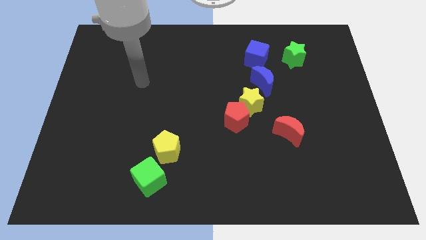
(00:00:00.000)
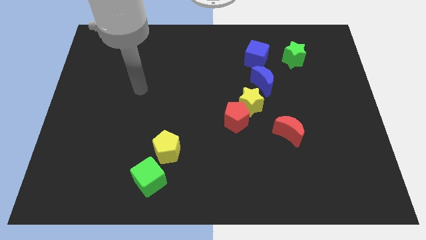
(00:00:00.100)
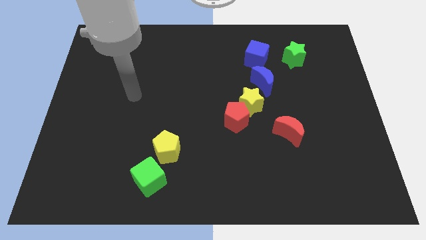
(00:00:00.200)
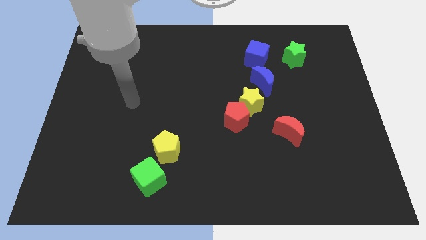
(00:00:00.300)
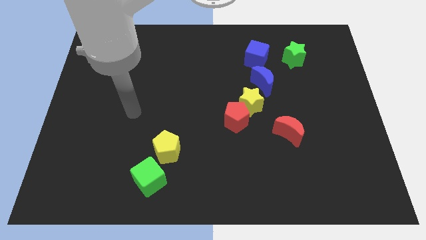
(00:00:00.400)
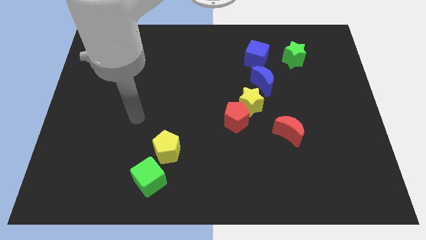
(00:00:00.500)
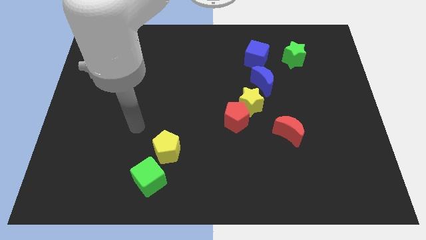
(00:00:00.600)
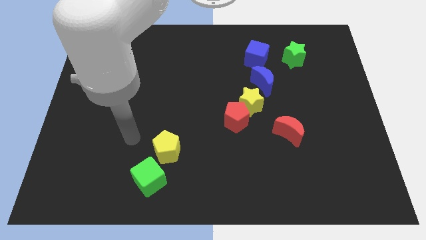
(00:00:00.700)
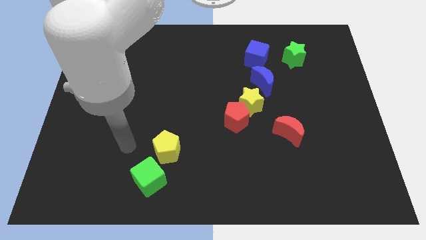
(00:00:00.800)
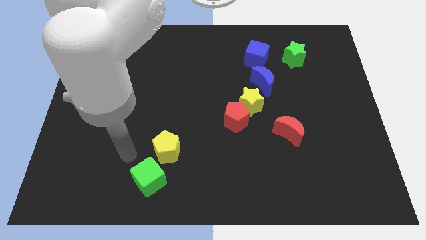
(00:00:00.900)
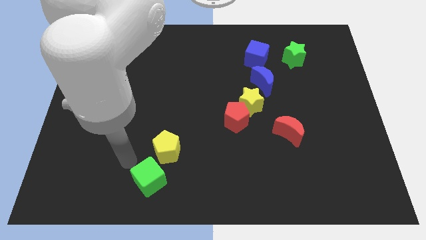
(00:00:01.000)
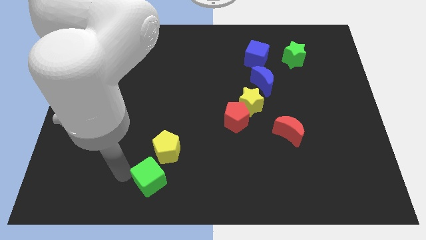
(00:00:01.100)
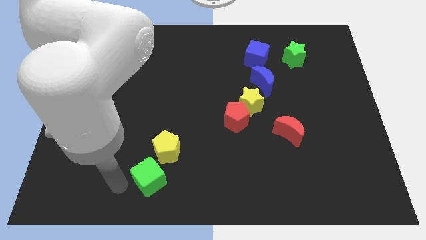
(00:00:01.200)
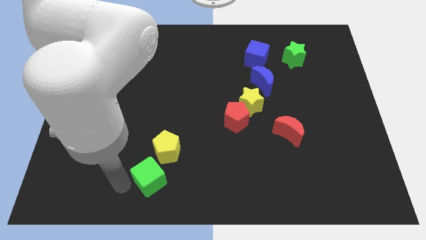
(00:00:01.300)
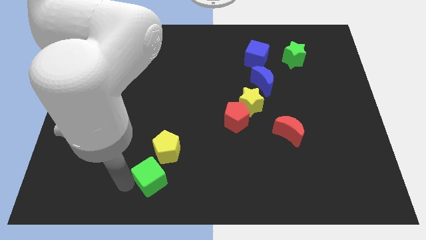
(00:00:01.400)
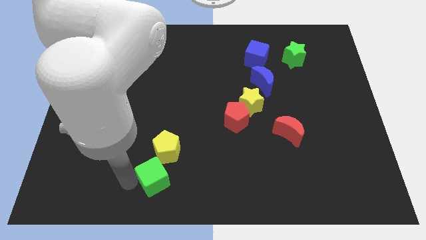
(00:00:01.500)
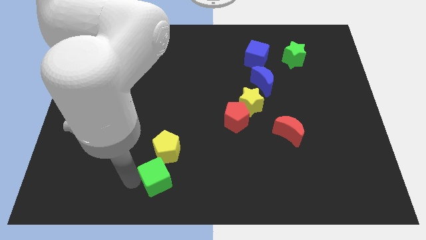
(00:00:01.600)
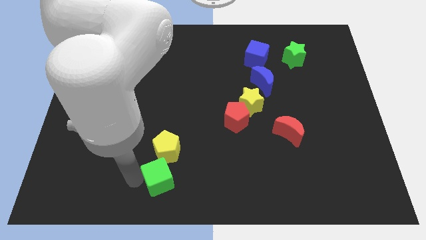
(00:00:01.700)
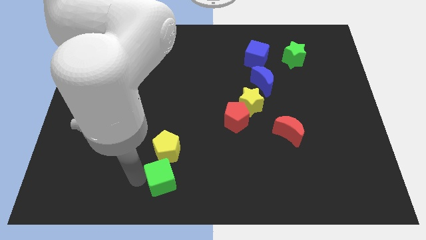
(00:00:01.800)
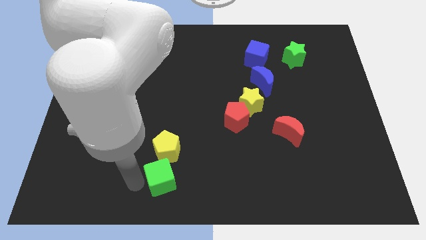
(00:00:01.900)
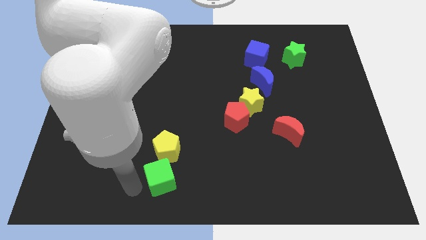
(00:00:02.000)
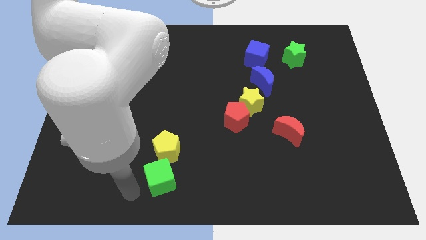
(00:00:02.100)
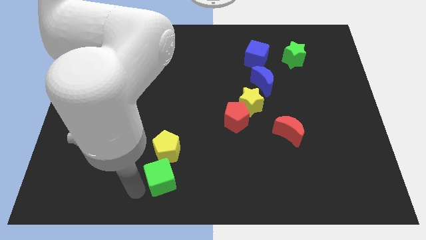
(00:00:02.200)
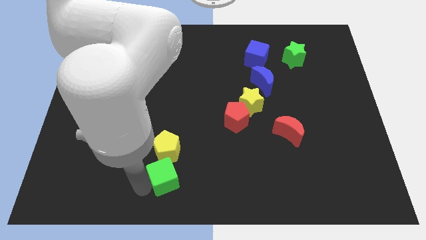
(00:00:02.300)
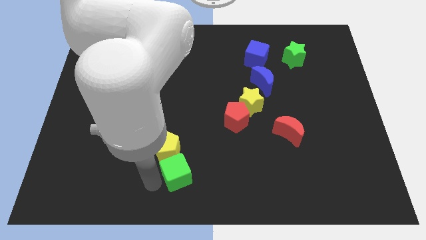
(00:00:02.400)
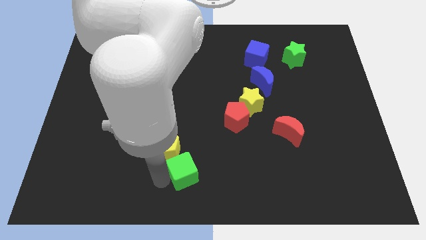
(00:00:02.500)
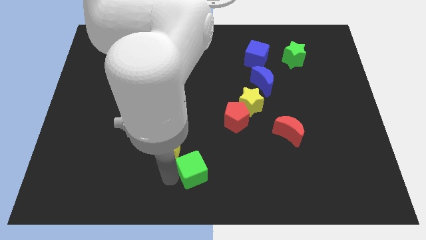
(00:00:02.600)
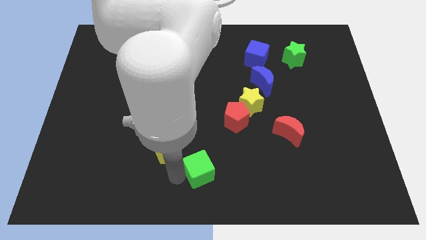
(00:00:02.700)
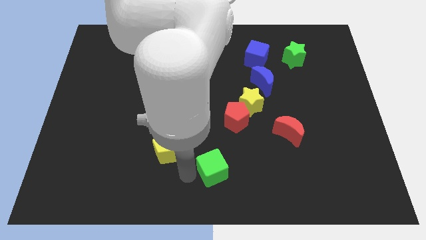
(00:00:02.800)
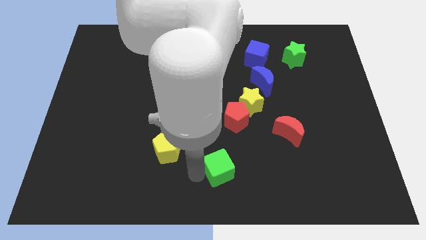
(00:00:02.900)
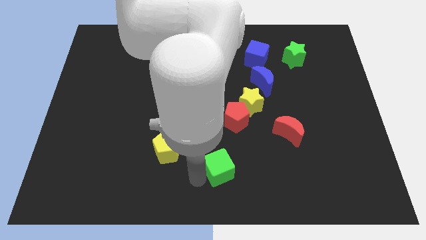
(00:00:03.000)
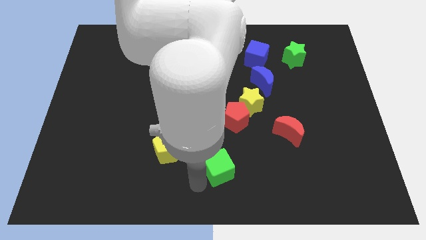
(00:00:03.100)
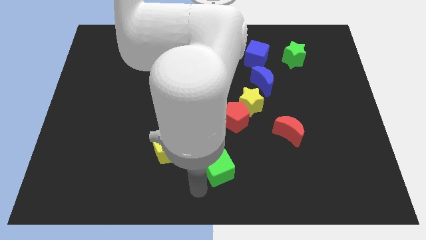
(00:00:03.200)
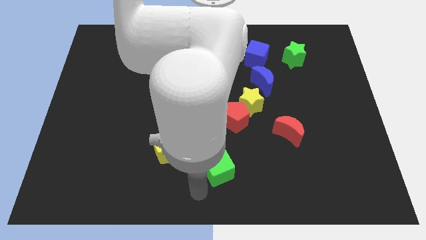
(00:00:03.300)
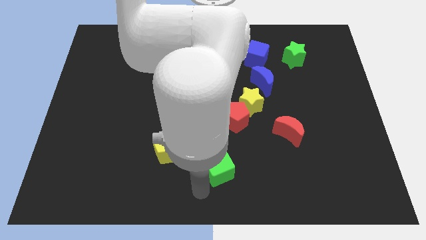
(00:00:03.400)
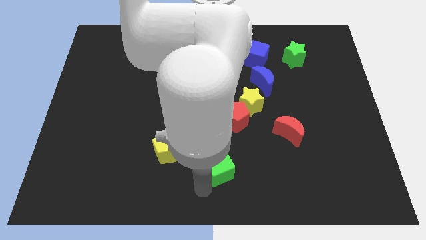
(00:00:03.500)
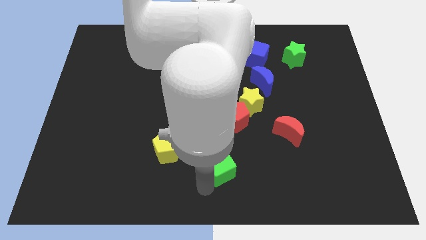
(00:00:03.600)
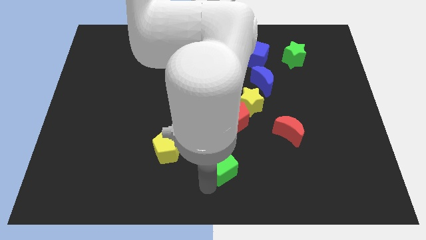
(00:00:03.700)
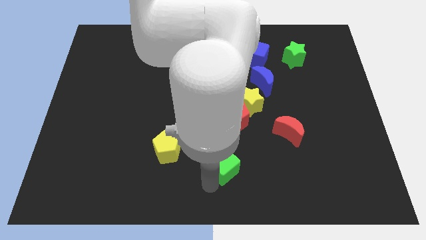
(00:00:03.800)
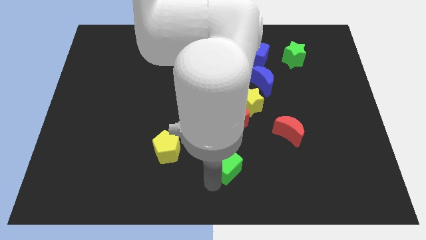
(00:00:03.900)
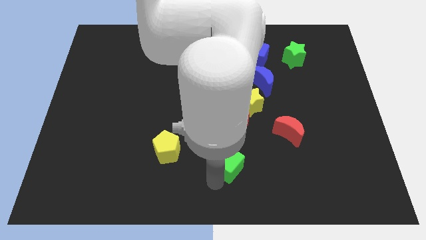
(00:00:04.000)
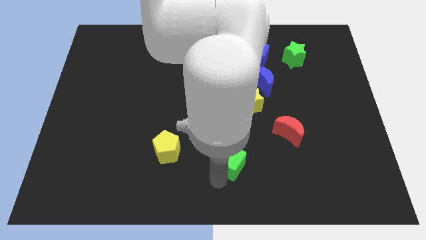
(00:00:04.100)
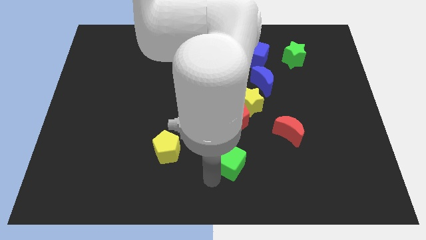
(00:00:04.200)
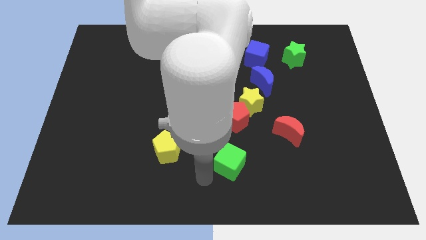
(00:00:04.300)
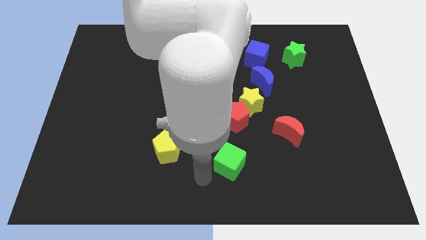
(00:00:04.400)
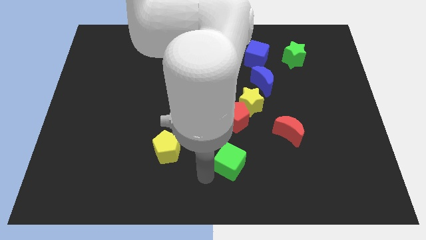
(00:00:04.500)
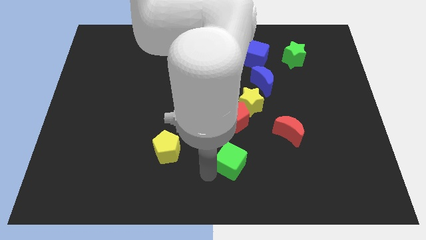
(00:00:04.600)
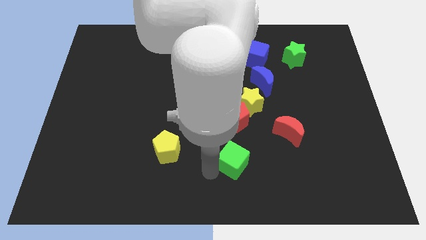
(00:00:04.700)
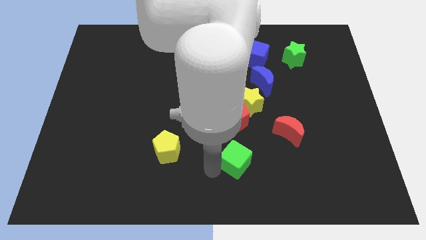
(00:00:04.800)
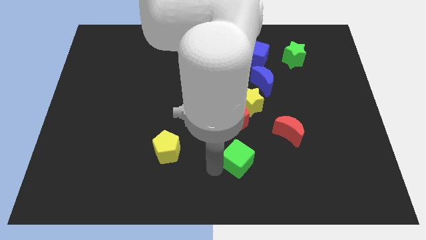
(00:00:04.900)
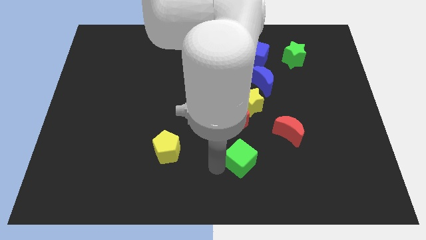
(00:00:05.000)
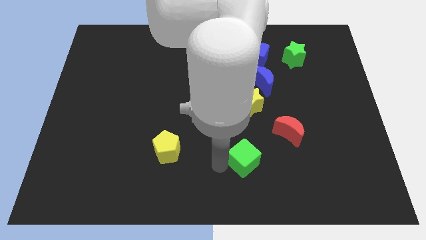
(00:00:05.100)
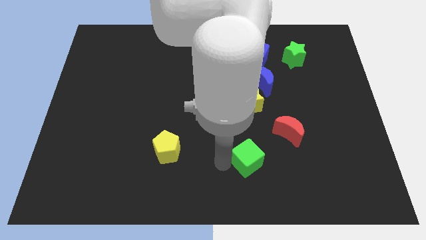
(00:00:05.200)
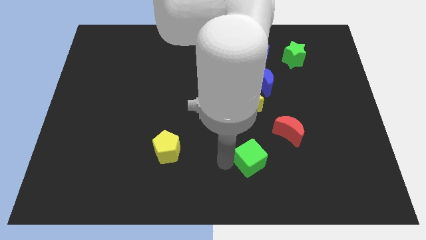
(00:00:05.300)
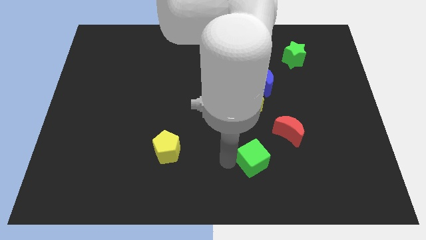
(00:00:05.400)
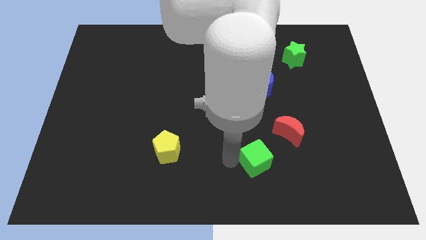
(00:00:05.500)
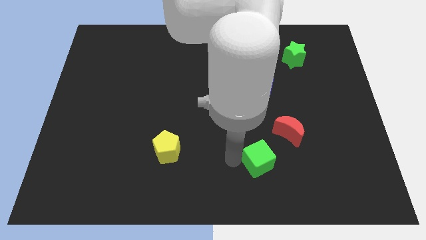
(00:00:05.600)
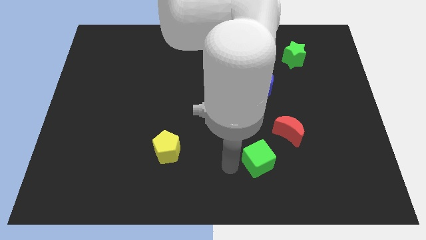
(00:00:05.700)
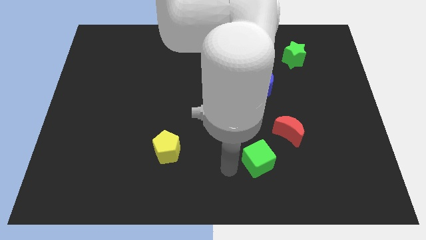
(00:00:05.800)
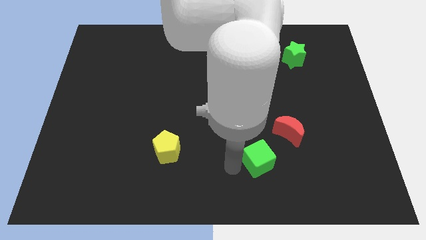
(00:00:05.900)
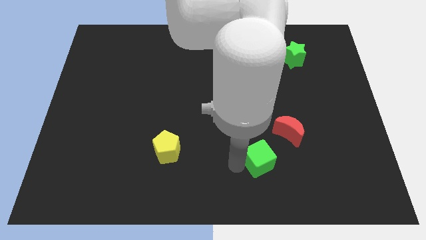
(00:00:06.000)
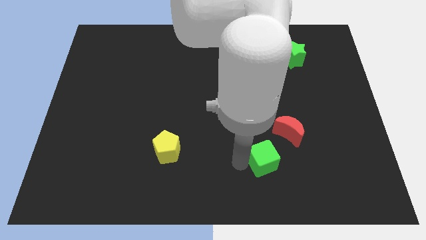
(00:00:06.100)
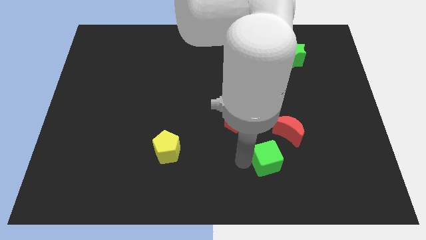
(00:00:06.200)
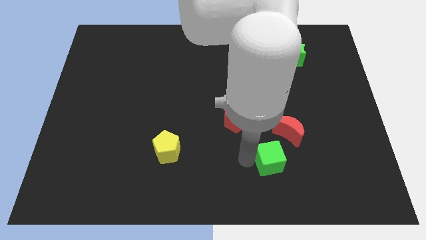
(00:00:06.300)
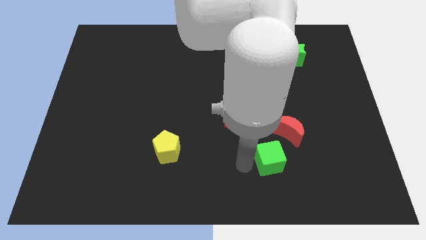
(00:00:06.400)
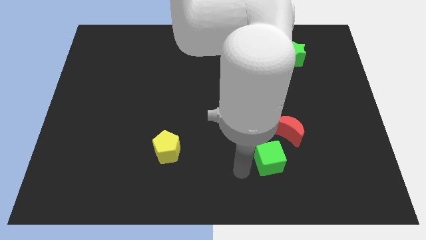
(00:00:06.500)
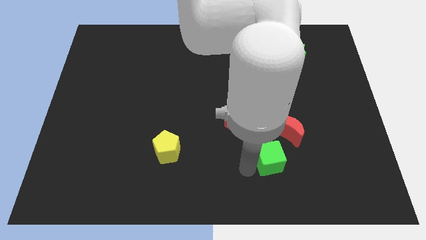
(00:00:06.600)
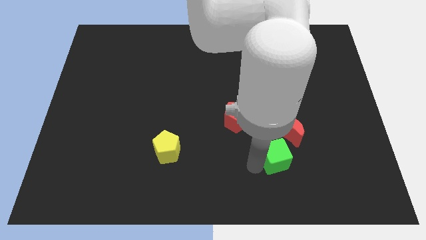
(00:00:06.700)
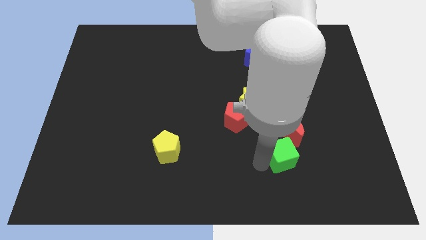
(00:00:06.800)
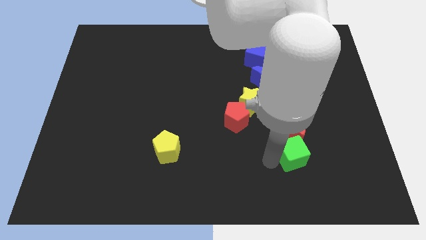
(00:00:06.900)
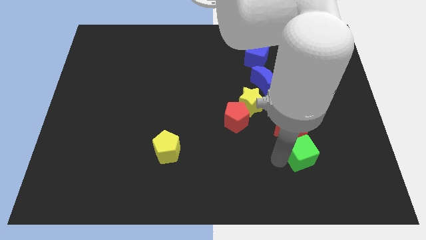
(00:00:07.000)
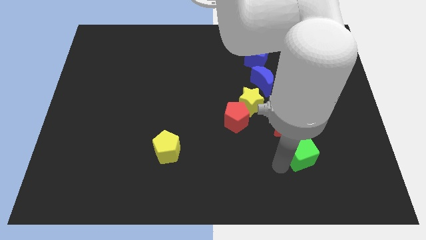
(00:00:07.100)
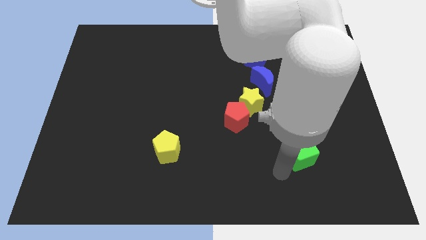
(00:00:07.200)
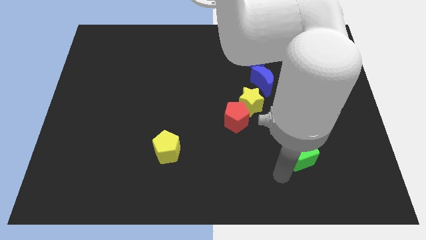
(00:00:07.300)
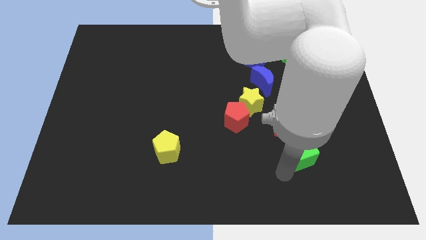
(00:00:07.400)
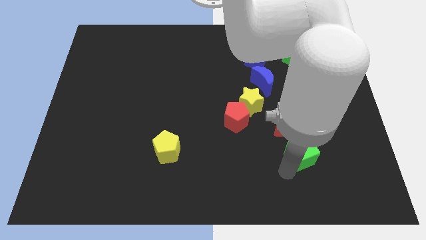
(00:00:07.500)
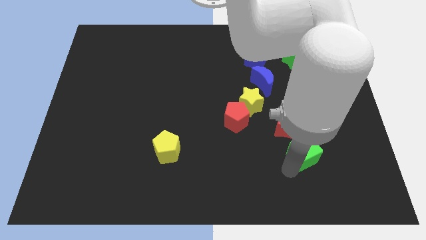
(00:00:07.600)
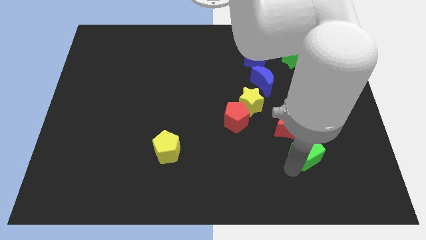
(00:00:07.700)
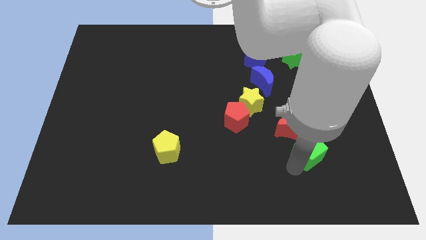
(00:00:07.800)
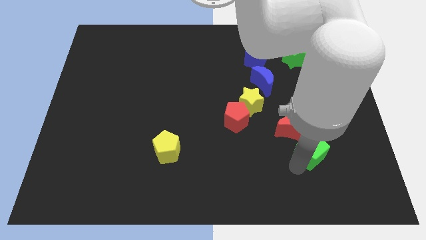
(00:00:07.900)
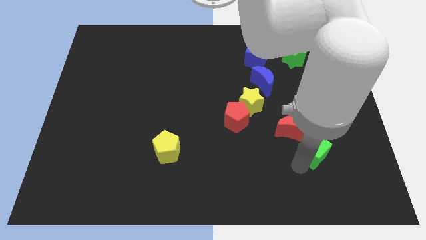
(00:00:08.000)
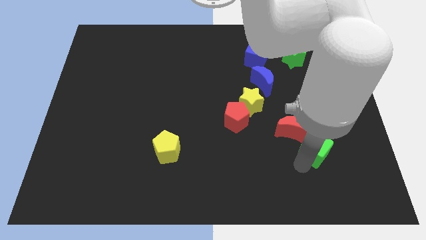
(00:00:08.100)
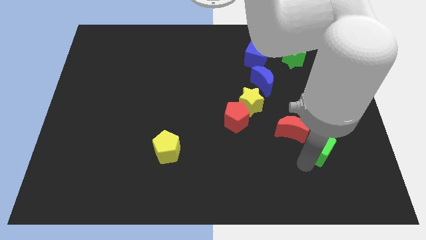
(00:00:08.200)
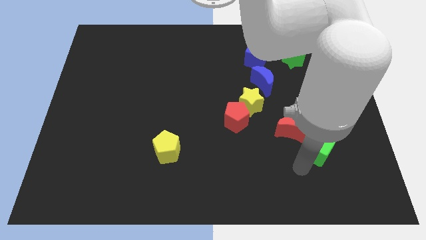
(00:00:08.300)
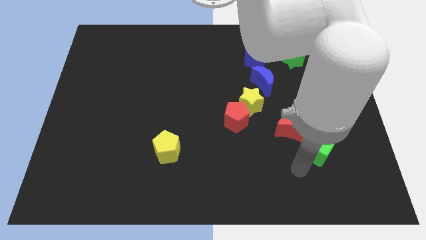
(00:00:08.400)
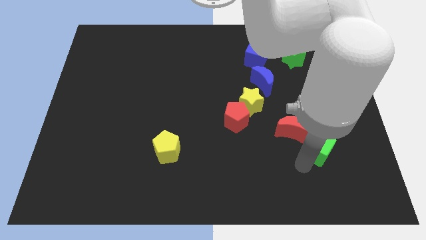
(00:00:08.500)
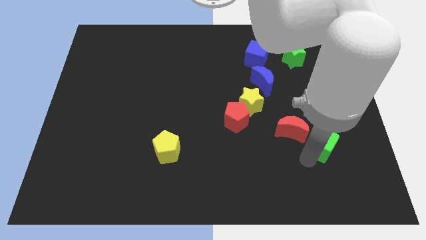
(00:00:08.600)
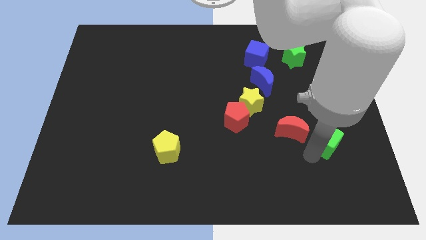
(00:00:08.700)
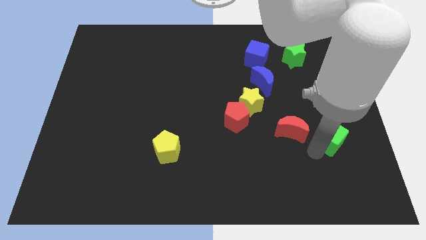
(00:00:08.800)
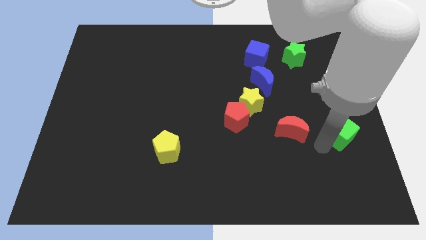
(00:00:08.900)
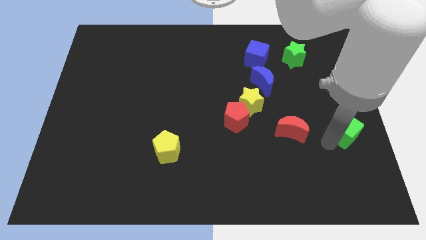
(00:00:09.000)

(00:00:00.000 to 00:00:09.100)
put the green cube to the right side
